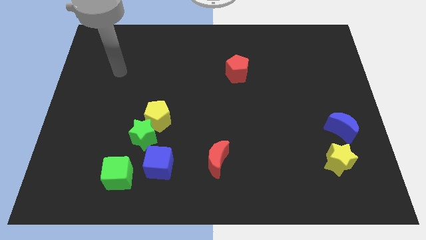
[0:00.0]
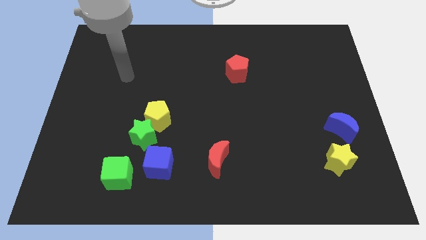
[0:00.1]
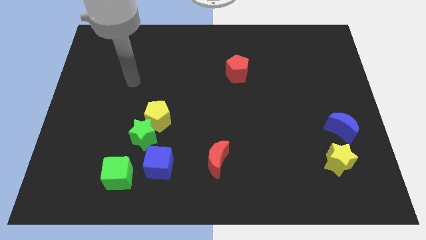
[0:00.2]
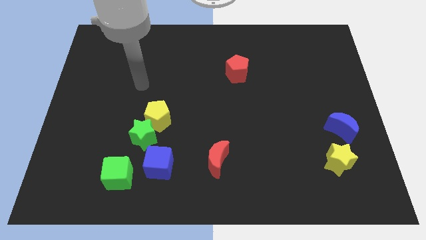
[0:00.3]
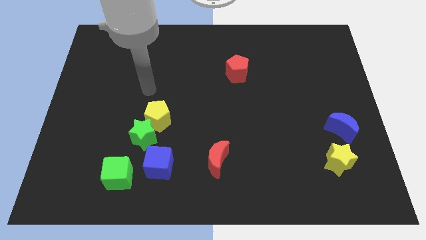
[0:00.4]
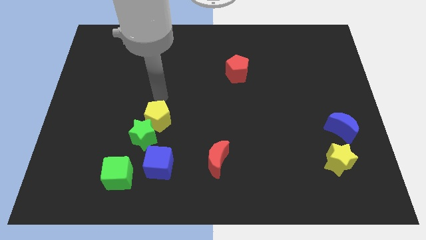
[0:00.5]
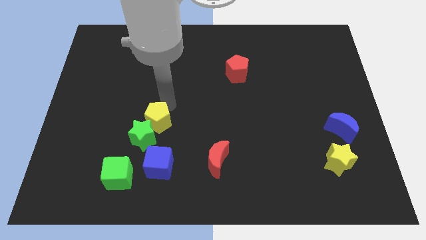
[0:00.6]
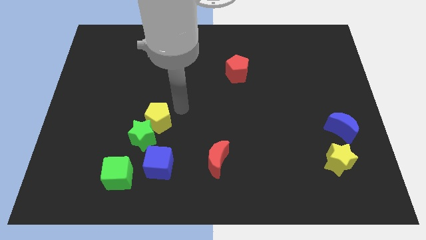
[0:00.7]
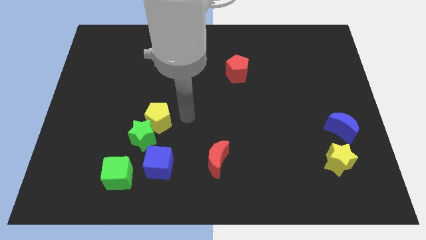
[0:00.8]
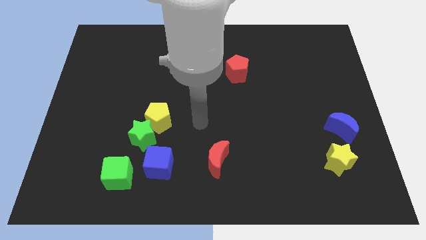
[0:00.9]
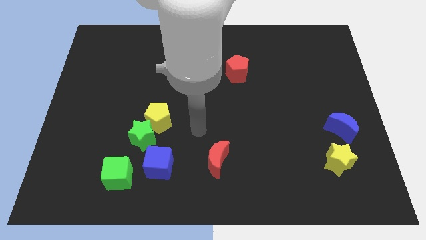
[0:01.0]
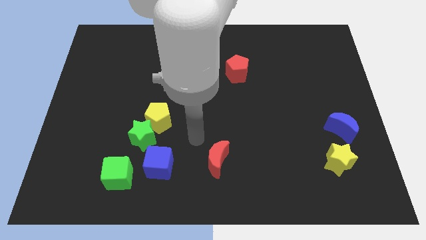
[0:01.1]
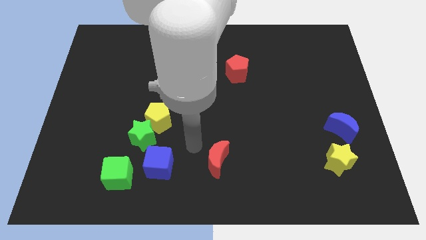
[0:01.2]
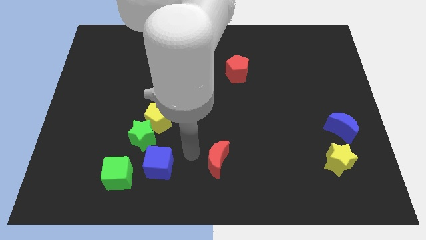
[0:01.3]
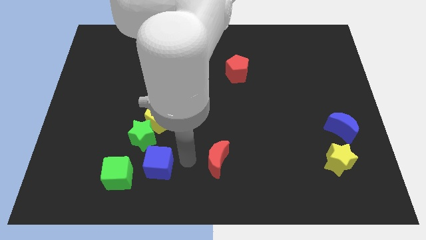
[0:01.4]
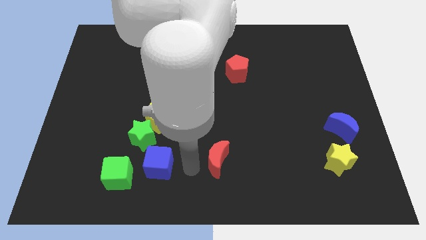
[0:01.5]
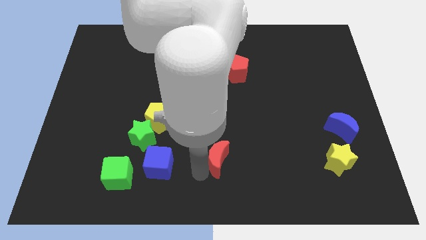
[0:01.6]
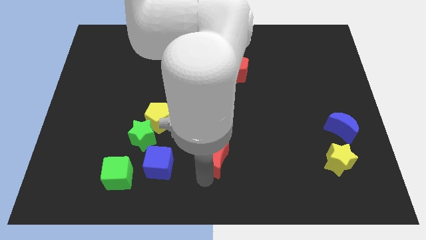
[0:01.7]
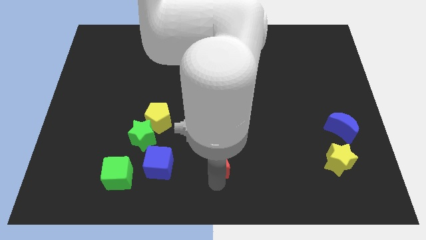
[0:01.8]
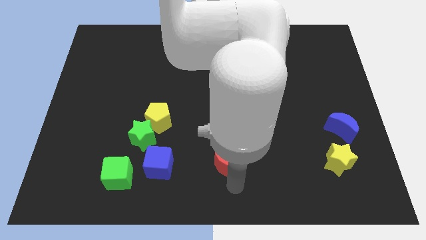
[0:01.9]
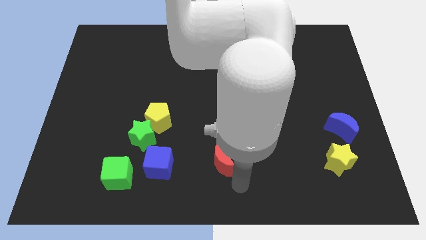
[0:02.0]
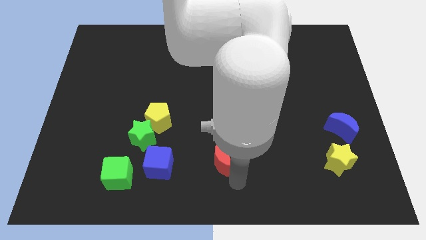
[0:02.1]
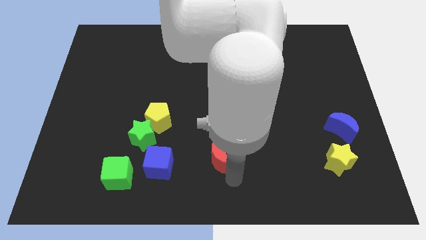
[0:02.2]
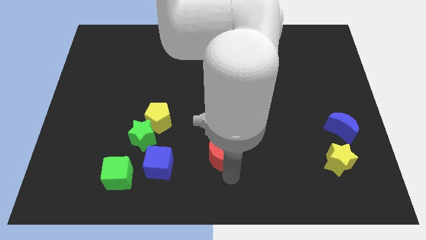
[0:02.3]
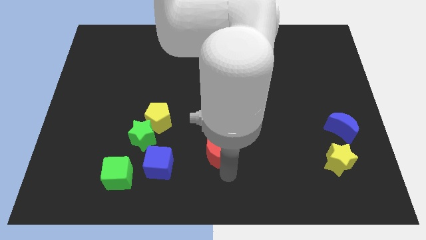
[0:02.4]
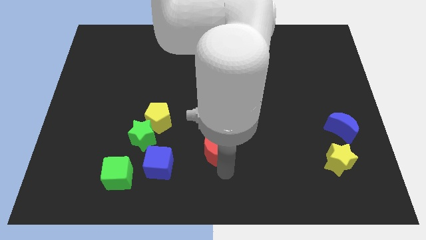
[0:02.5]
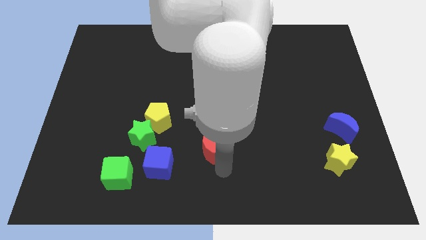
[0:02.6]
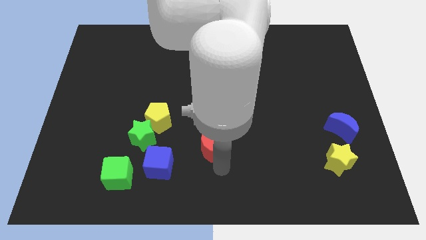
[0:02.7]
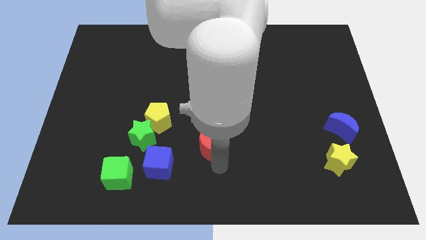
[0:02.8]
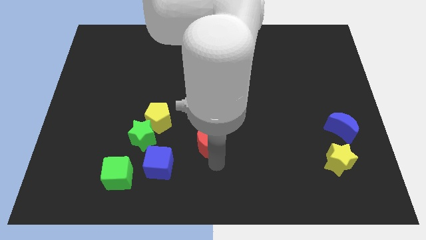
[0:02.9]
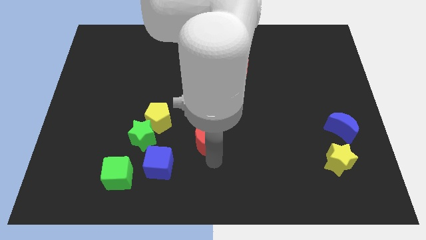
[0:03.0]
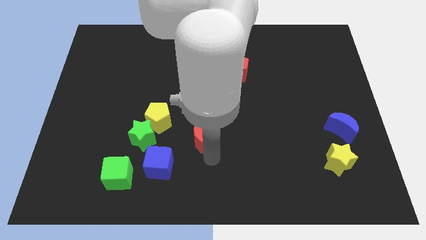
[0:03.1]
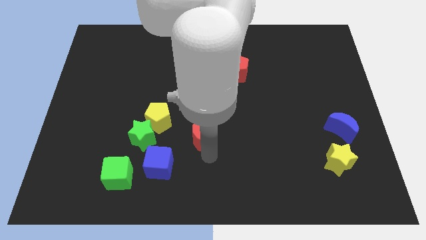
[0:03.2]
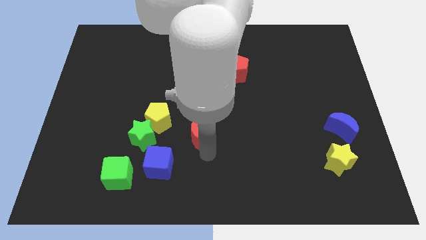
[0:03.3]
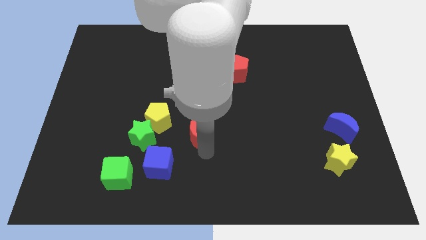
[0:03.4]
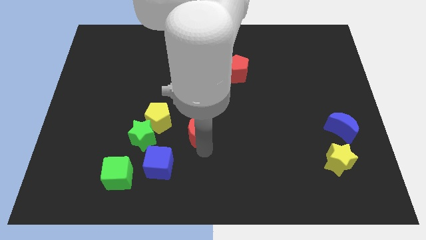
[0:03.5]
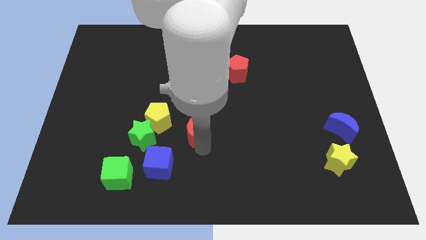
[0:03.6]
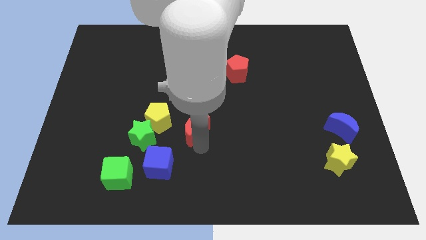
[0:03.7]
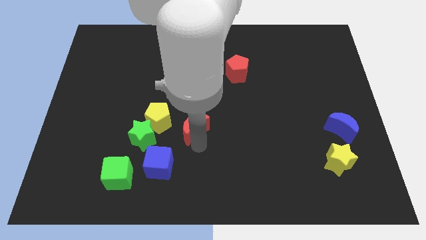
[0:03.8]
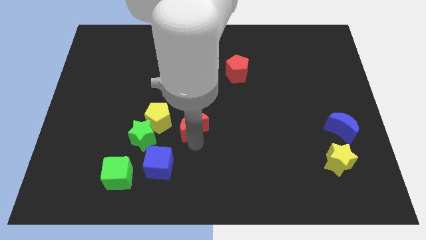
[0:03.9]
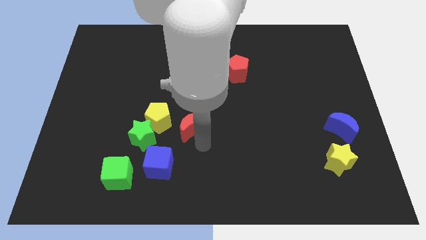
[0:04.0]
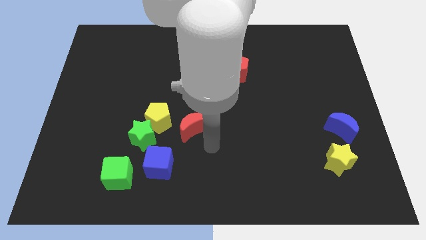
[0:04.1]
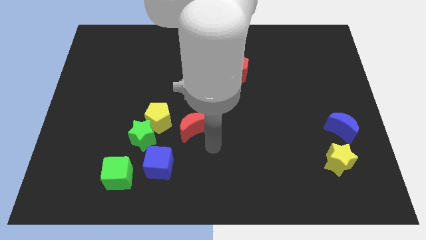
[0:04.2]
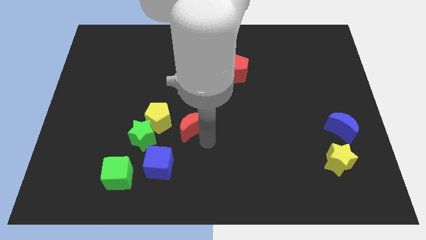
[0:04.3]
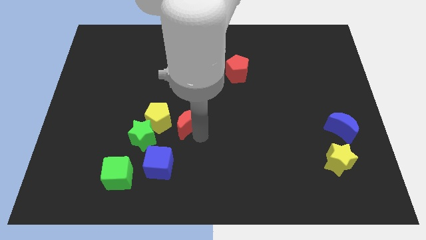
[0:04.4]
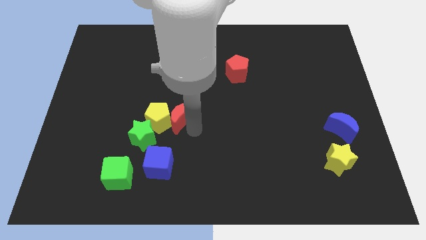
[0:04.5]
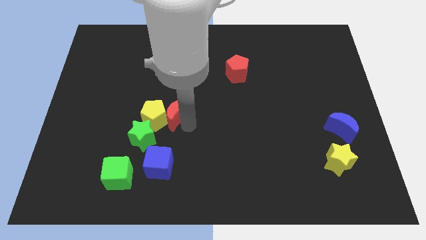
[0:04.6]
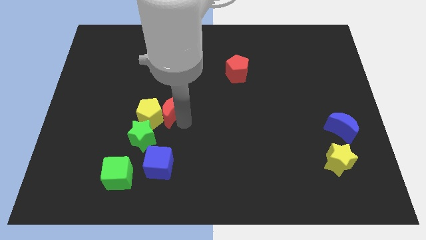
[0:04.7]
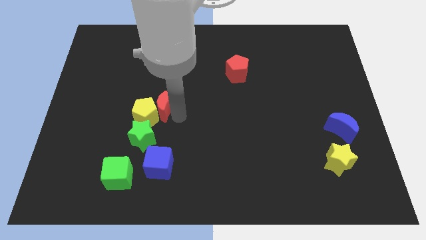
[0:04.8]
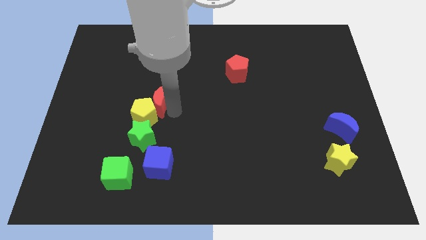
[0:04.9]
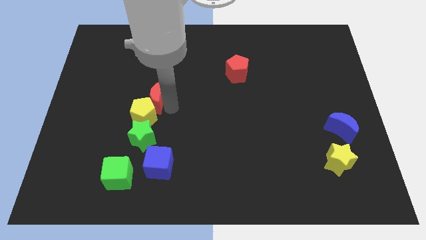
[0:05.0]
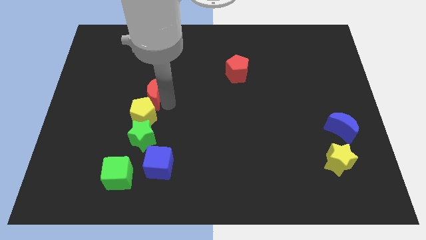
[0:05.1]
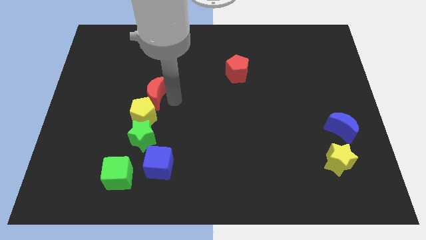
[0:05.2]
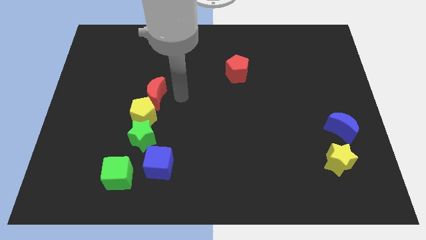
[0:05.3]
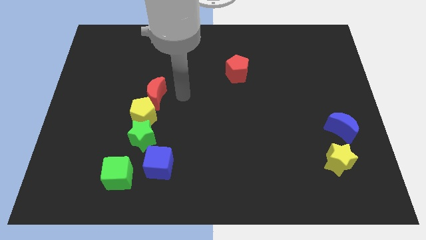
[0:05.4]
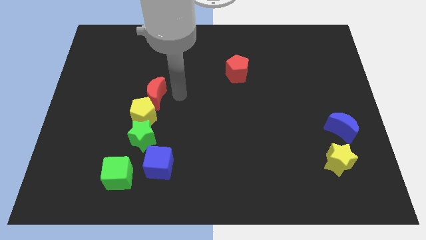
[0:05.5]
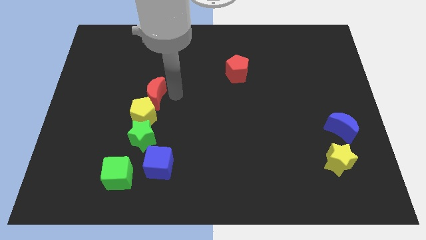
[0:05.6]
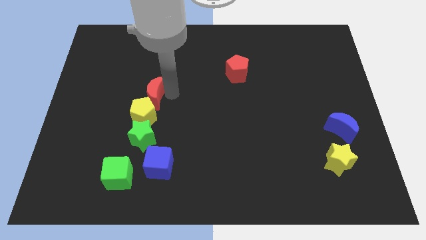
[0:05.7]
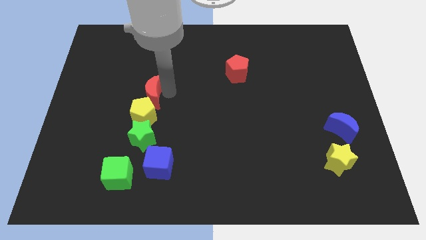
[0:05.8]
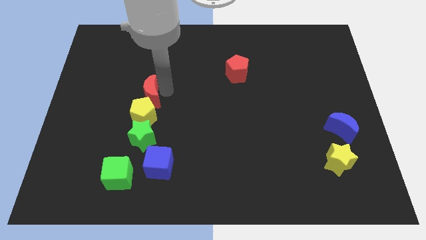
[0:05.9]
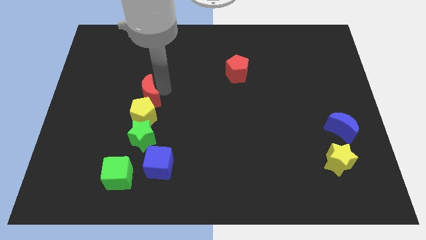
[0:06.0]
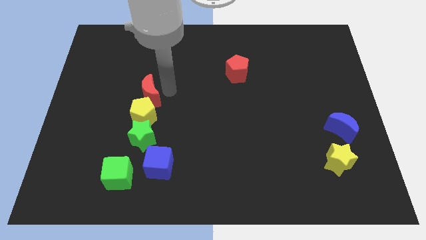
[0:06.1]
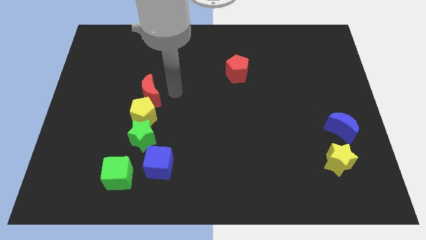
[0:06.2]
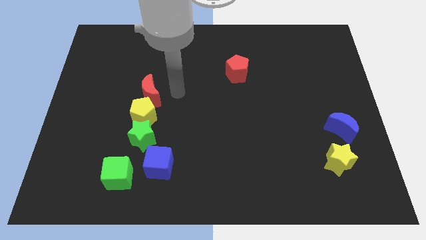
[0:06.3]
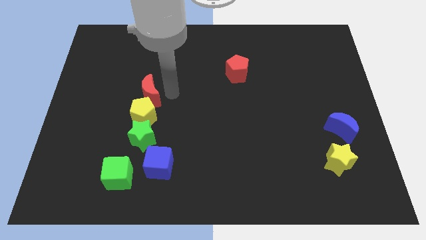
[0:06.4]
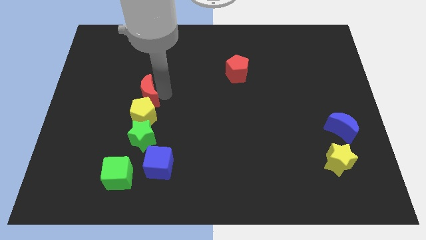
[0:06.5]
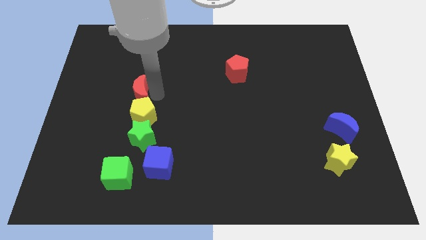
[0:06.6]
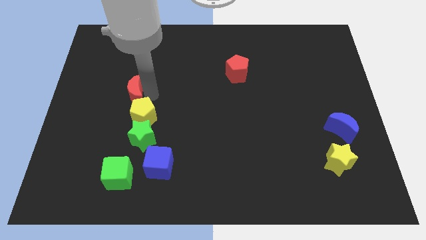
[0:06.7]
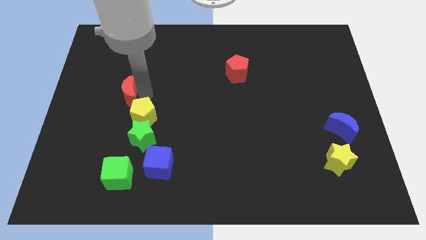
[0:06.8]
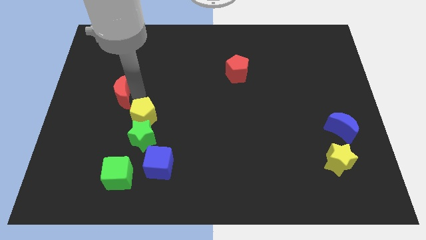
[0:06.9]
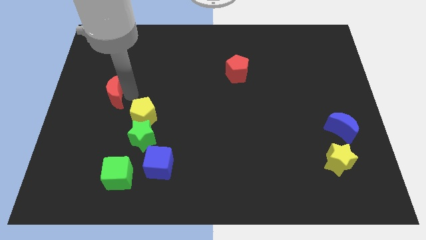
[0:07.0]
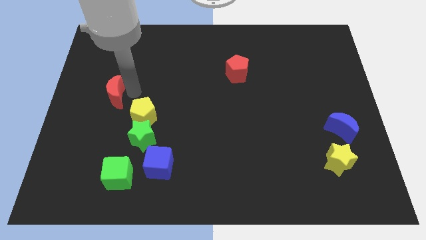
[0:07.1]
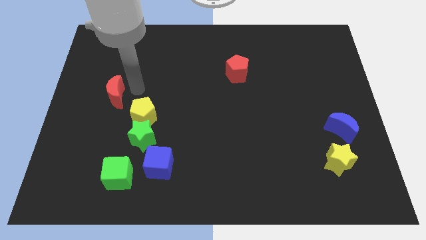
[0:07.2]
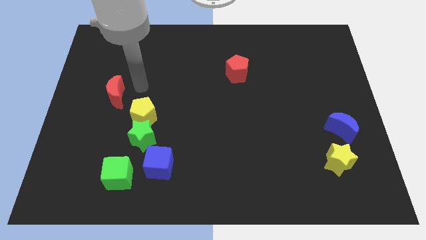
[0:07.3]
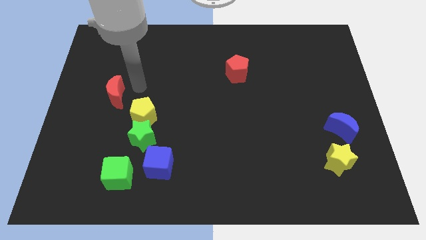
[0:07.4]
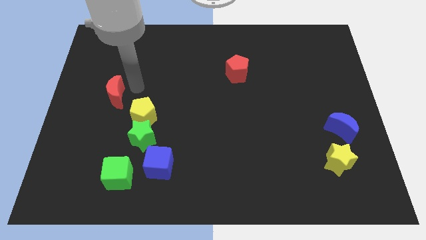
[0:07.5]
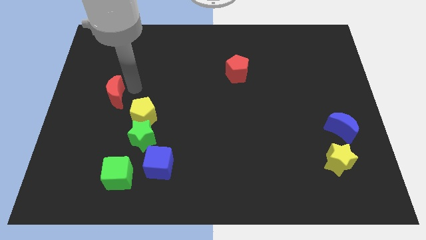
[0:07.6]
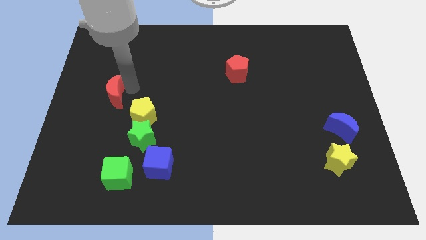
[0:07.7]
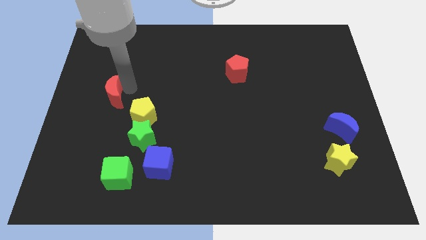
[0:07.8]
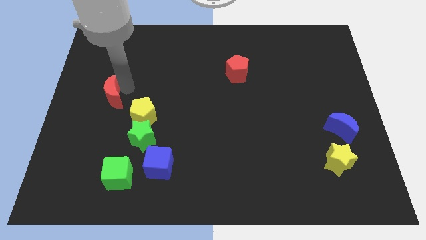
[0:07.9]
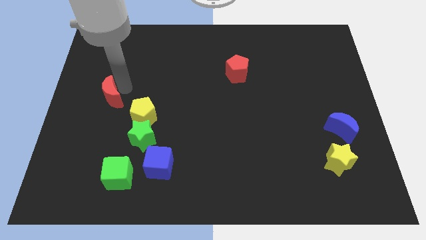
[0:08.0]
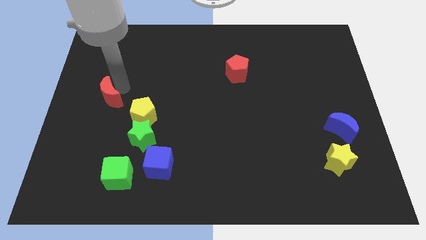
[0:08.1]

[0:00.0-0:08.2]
put the red moon to the left side of the board

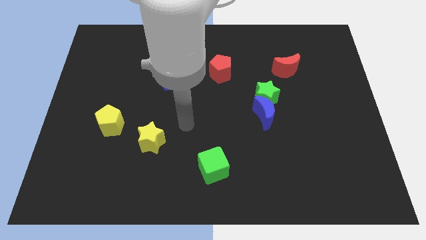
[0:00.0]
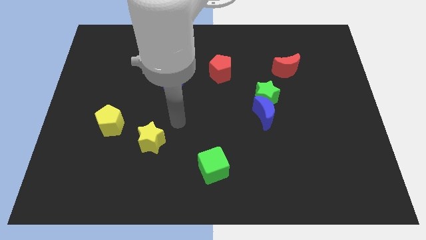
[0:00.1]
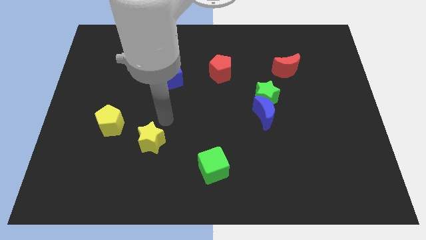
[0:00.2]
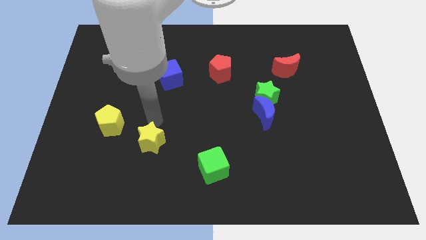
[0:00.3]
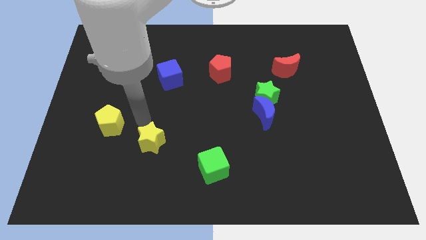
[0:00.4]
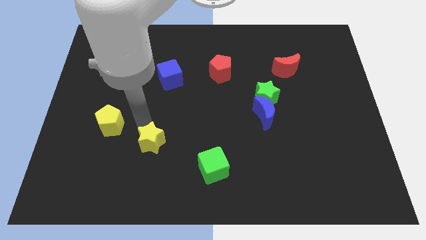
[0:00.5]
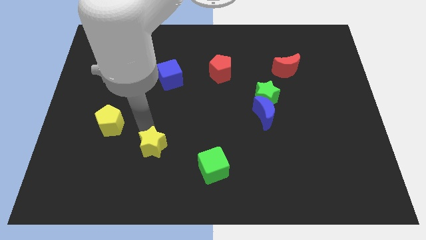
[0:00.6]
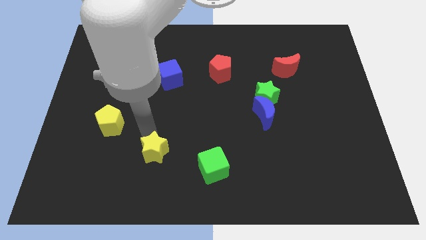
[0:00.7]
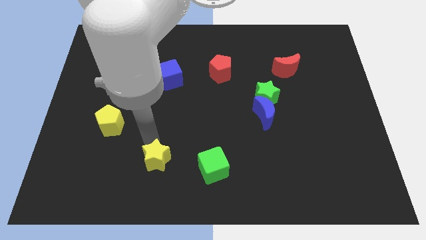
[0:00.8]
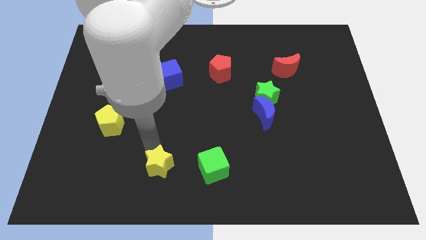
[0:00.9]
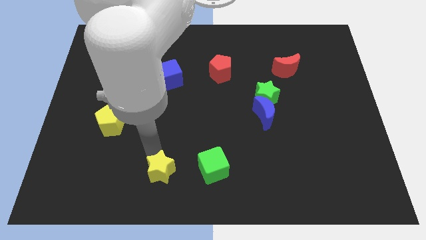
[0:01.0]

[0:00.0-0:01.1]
move the yellow star to the bottom side
